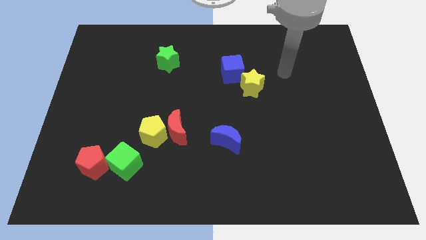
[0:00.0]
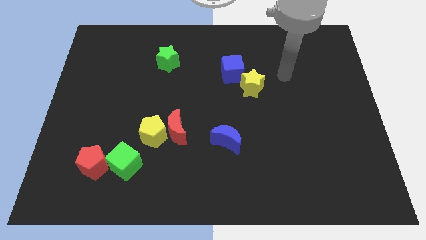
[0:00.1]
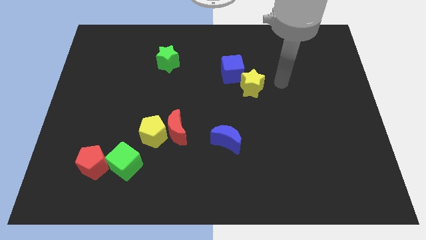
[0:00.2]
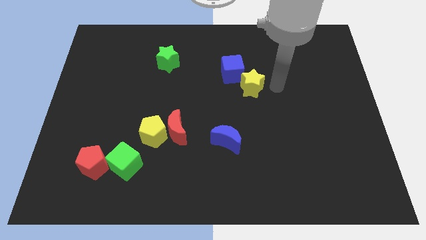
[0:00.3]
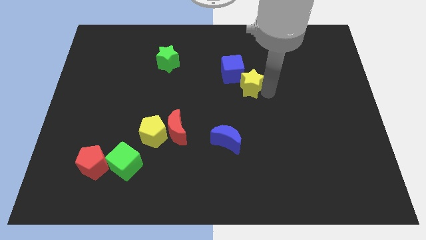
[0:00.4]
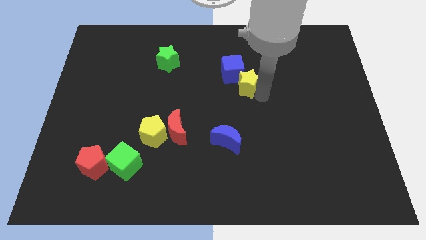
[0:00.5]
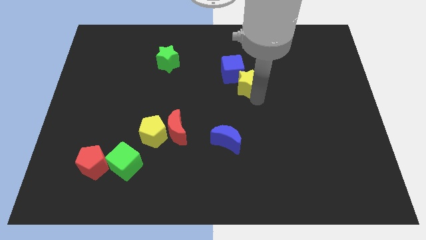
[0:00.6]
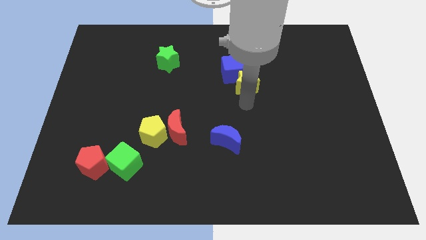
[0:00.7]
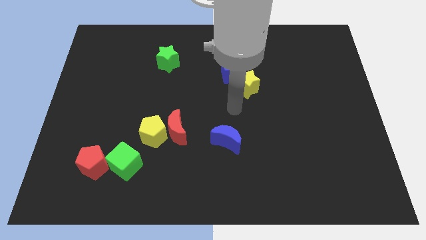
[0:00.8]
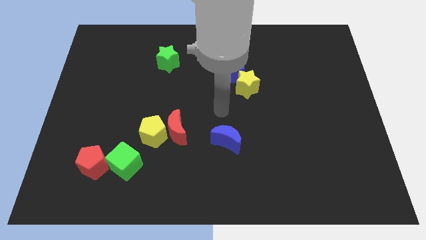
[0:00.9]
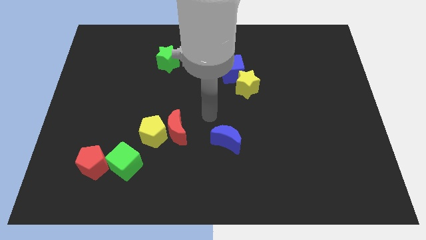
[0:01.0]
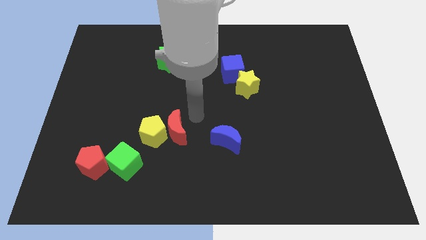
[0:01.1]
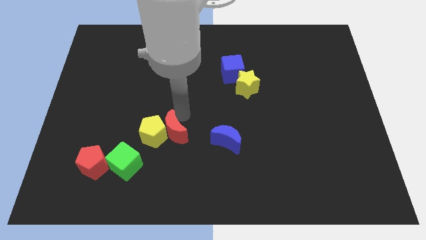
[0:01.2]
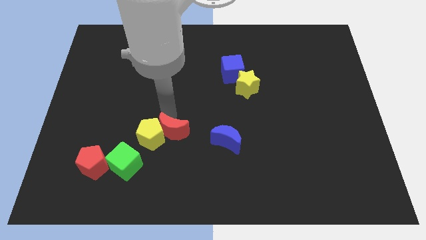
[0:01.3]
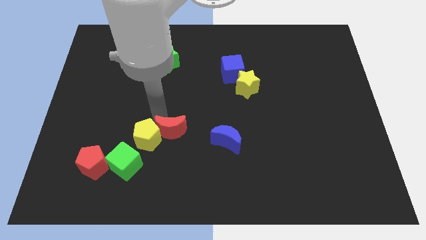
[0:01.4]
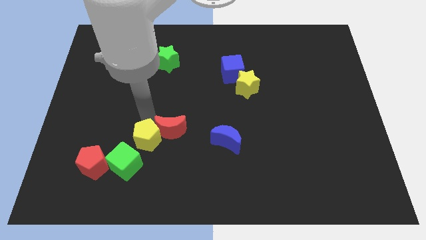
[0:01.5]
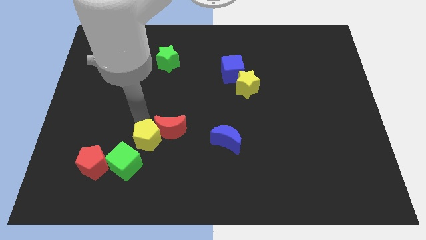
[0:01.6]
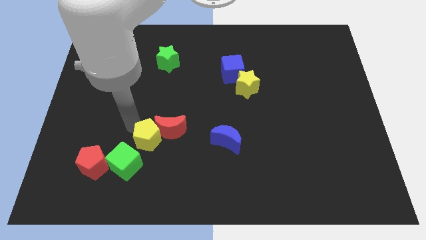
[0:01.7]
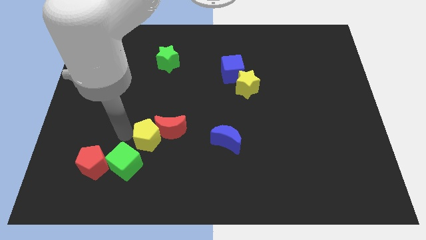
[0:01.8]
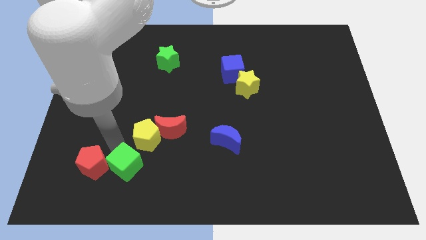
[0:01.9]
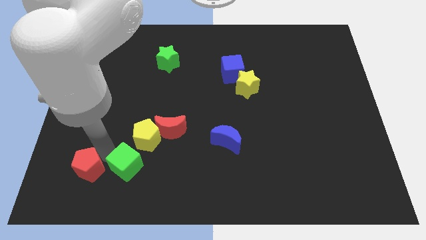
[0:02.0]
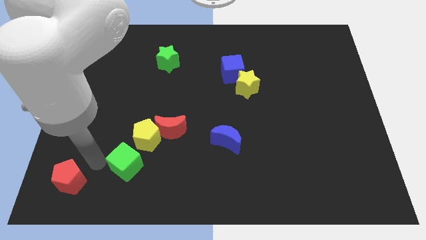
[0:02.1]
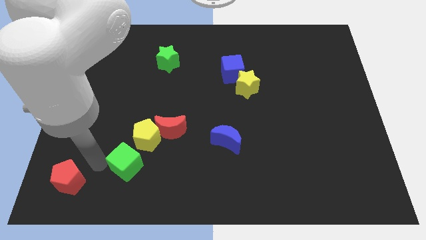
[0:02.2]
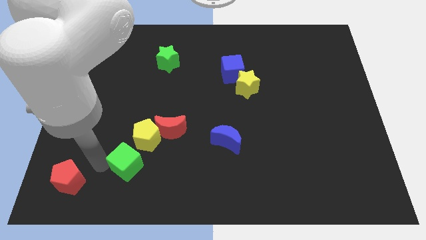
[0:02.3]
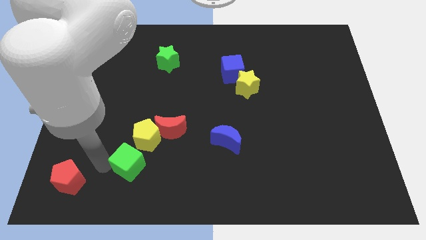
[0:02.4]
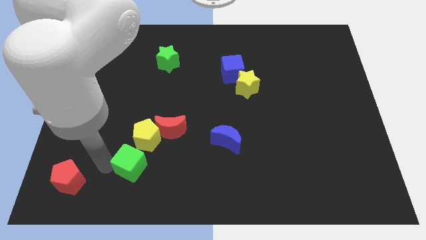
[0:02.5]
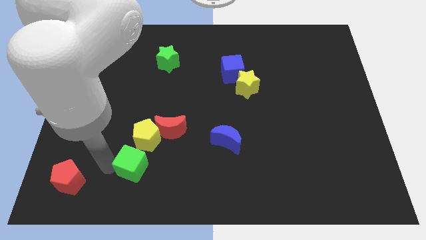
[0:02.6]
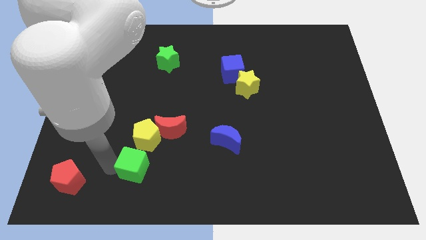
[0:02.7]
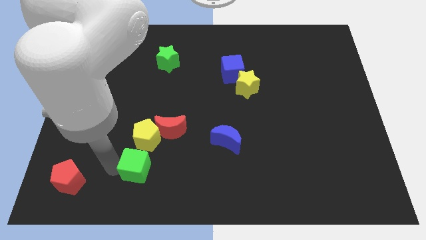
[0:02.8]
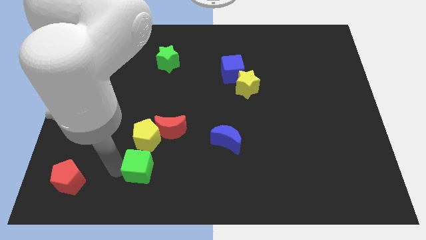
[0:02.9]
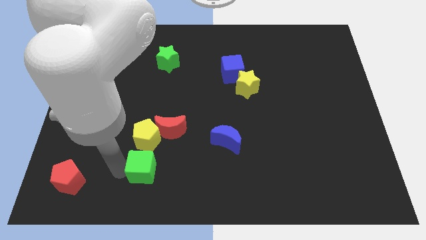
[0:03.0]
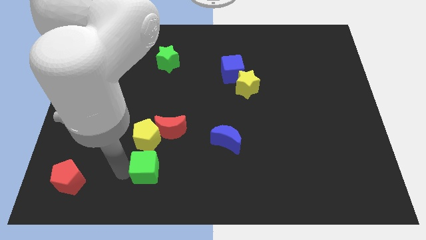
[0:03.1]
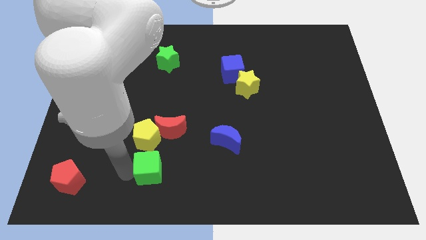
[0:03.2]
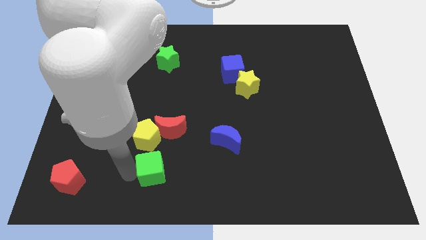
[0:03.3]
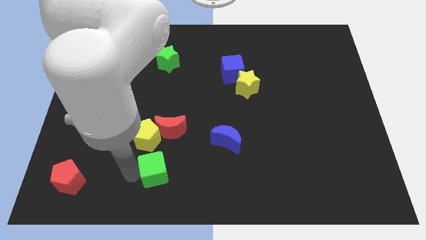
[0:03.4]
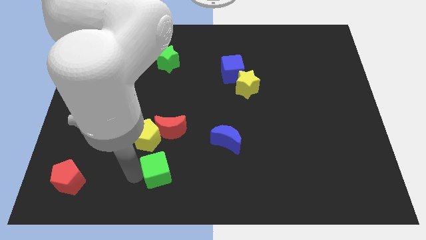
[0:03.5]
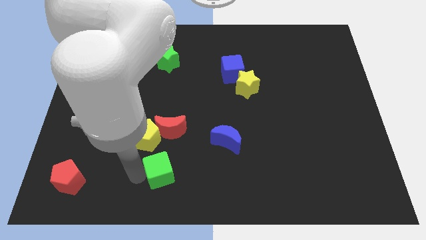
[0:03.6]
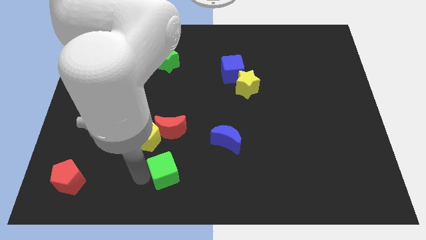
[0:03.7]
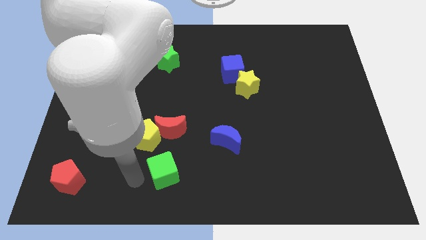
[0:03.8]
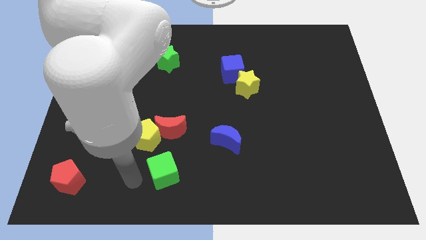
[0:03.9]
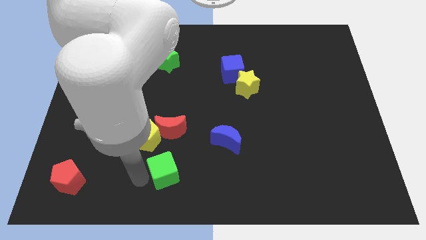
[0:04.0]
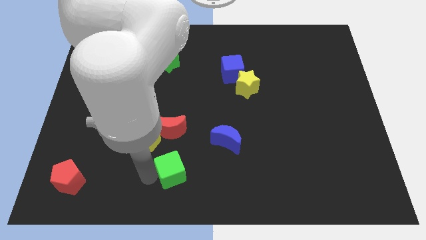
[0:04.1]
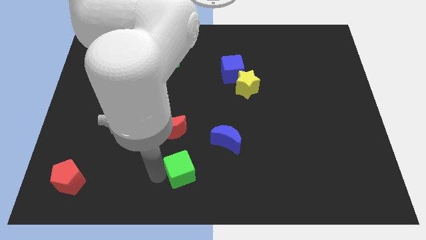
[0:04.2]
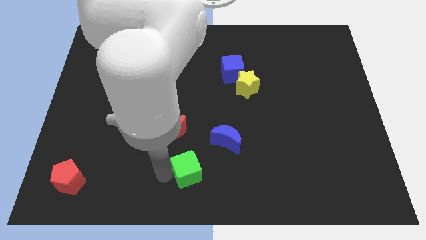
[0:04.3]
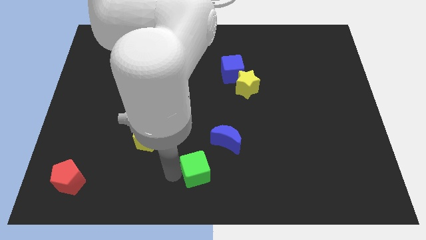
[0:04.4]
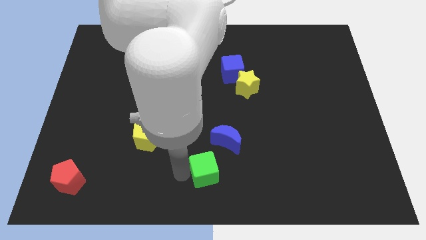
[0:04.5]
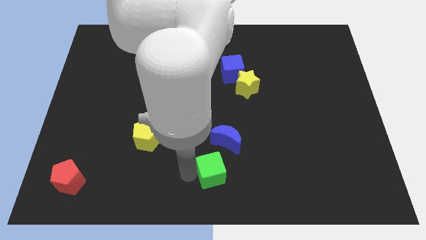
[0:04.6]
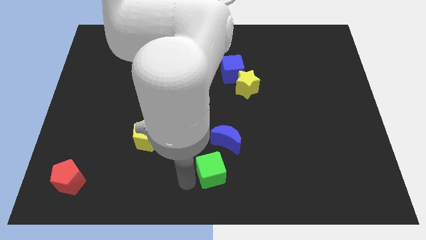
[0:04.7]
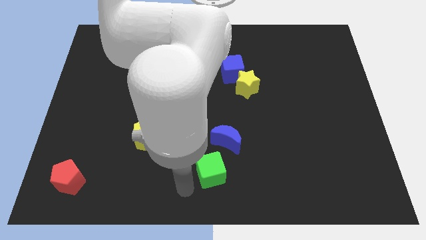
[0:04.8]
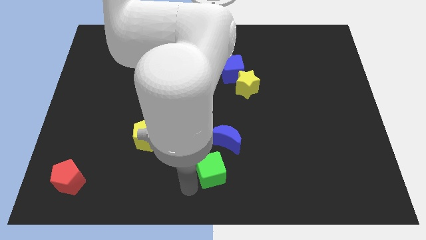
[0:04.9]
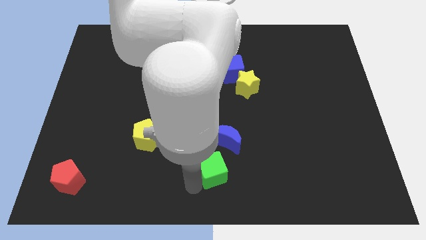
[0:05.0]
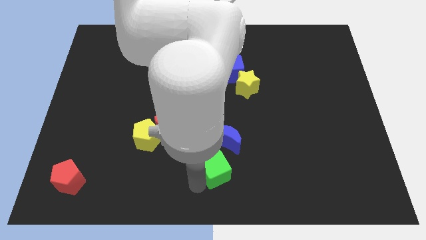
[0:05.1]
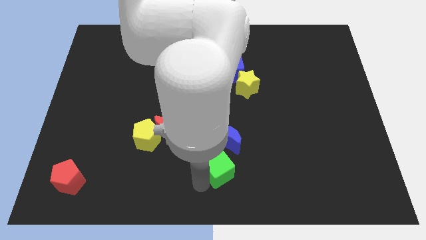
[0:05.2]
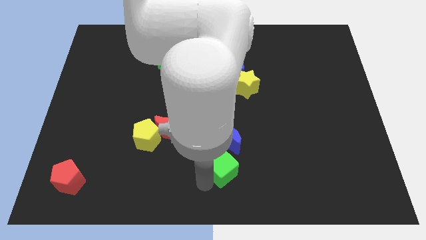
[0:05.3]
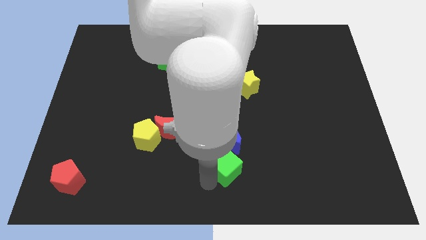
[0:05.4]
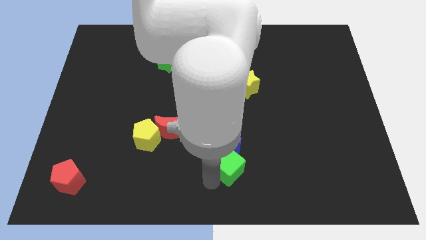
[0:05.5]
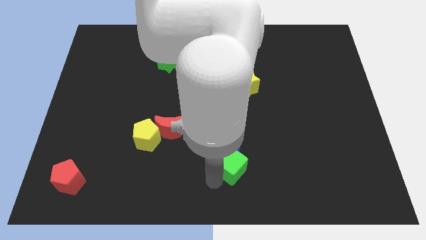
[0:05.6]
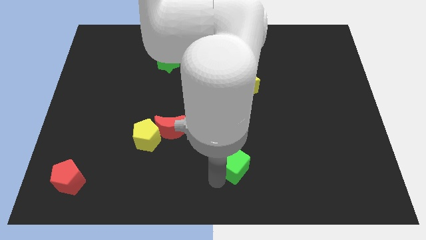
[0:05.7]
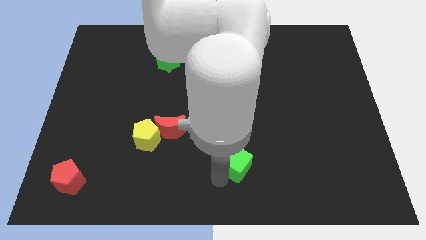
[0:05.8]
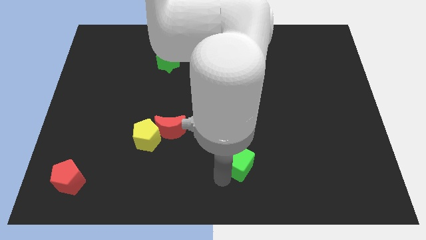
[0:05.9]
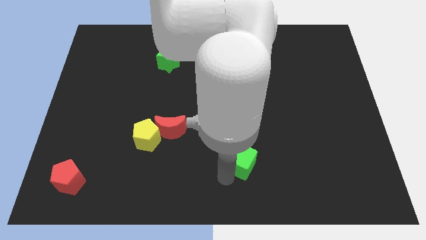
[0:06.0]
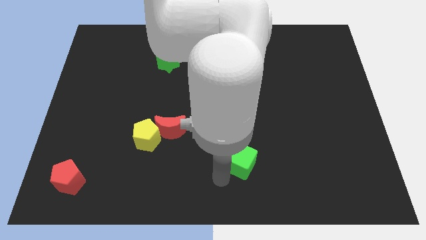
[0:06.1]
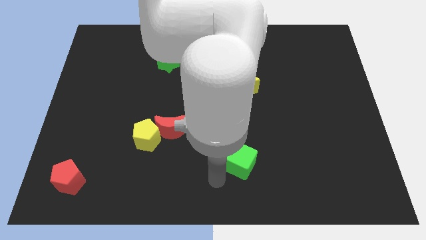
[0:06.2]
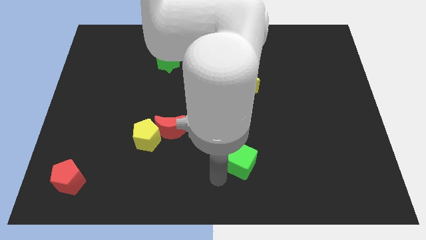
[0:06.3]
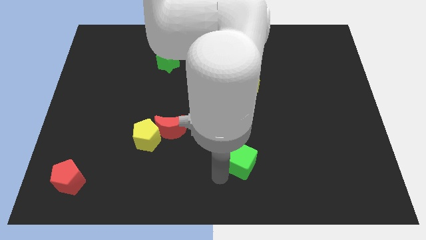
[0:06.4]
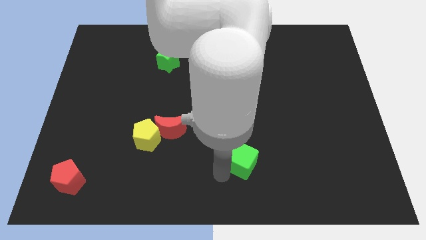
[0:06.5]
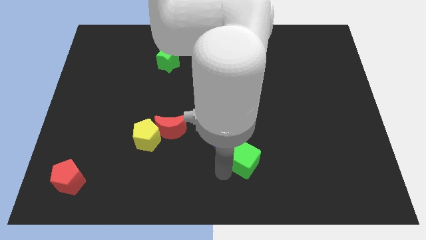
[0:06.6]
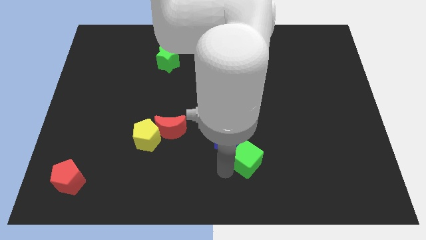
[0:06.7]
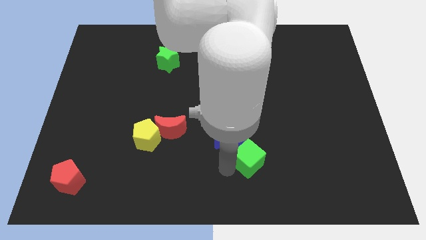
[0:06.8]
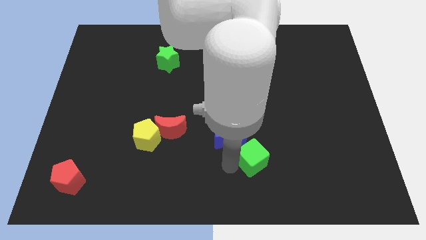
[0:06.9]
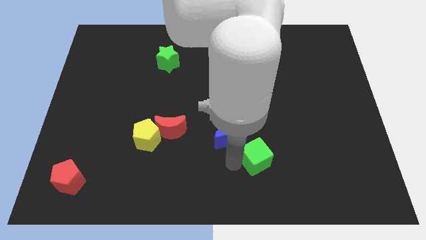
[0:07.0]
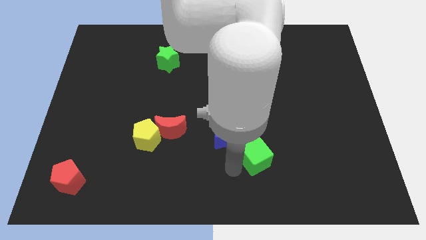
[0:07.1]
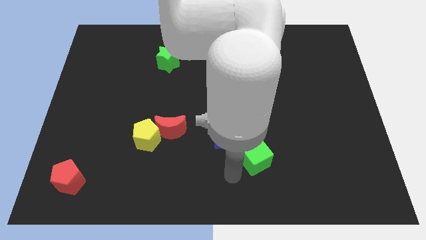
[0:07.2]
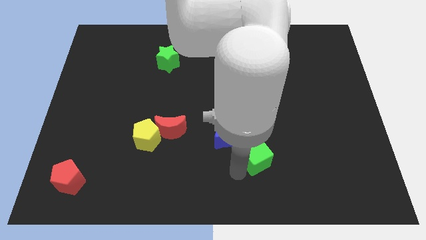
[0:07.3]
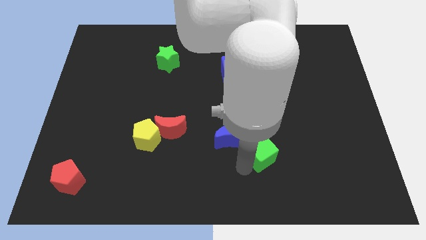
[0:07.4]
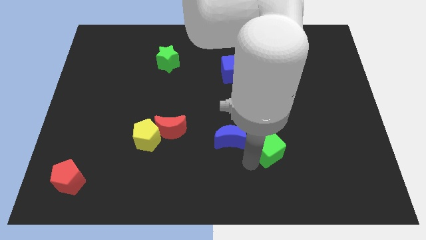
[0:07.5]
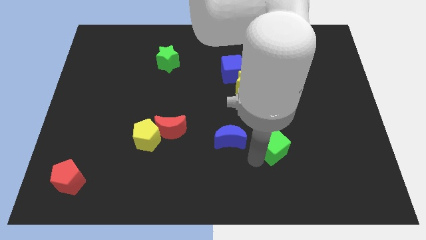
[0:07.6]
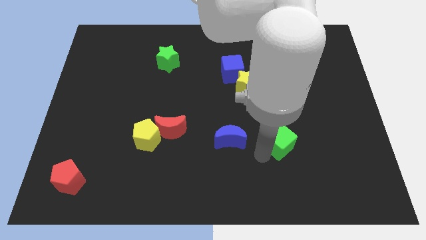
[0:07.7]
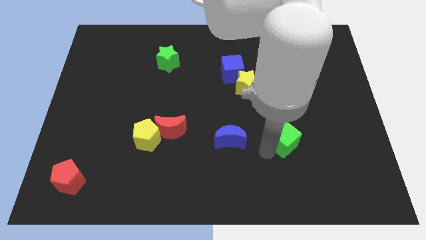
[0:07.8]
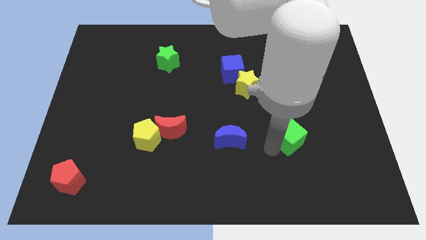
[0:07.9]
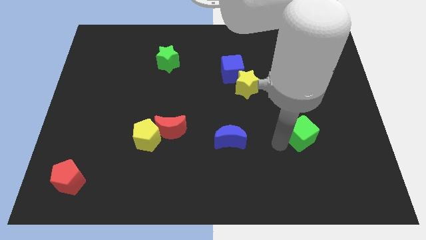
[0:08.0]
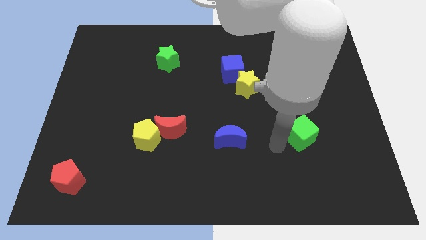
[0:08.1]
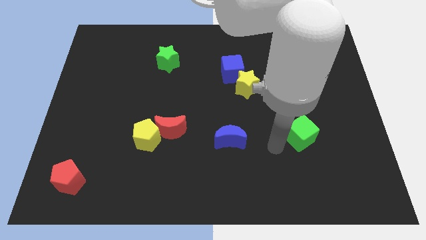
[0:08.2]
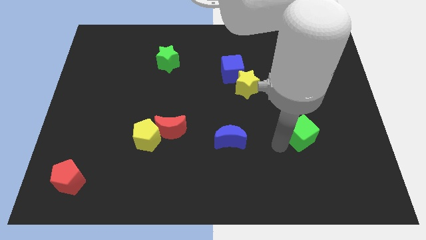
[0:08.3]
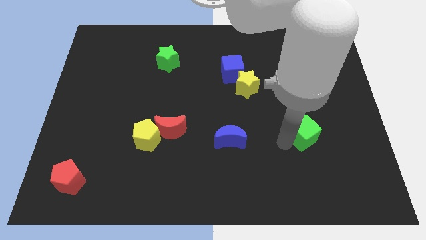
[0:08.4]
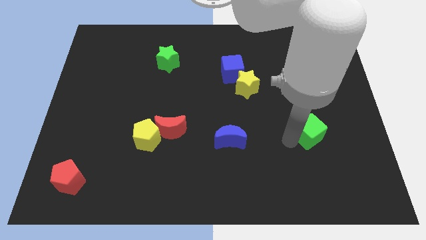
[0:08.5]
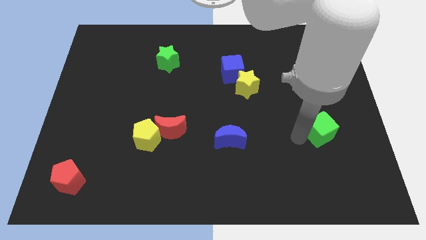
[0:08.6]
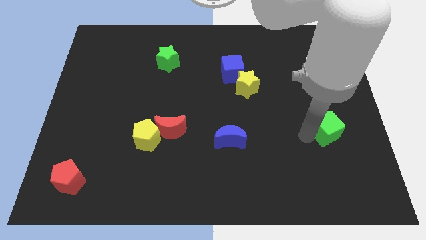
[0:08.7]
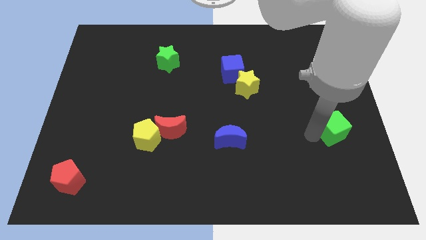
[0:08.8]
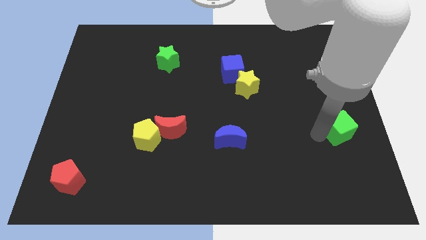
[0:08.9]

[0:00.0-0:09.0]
slide the green cube to the right side
